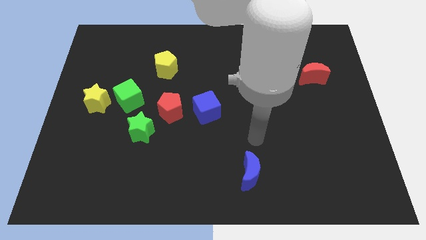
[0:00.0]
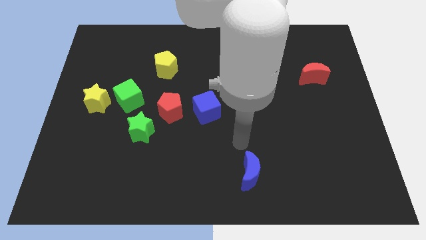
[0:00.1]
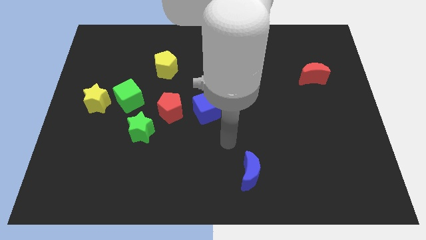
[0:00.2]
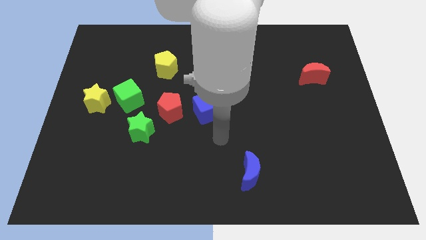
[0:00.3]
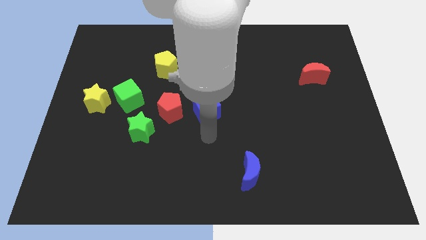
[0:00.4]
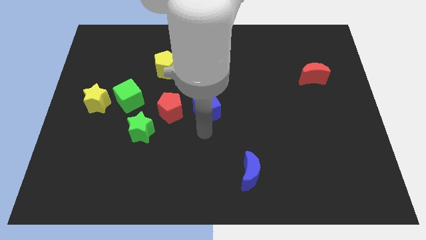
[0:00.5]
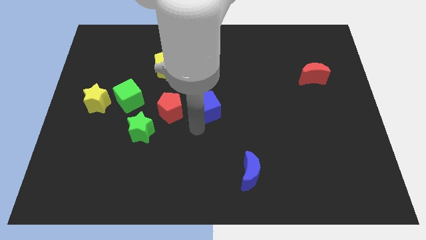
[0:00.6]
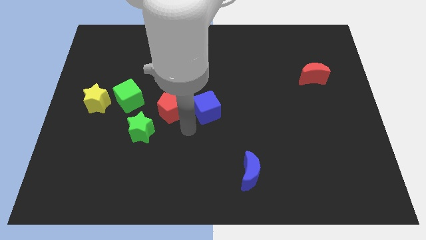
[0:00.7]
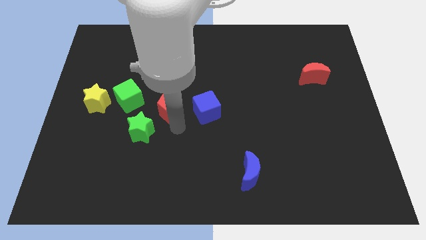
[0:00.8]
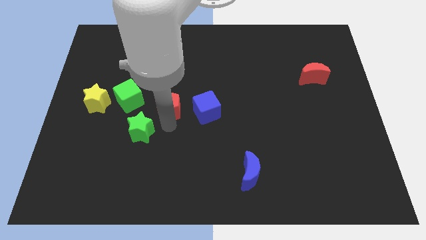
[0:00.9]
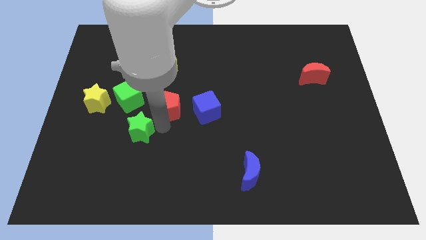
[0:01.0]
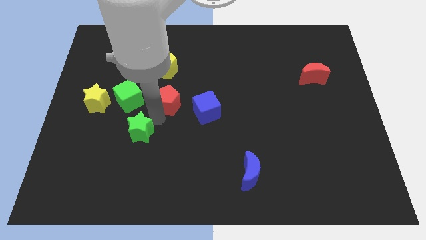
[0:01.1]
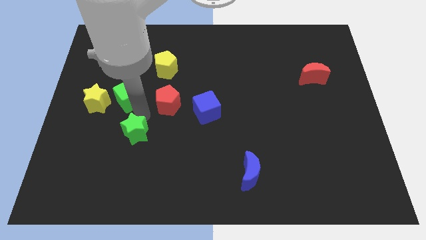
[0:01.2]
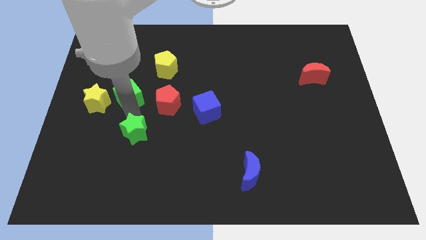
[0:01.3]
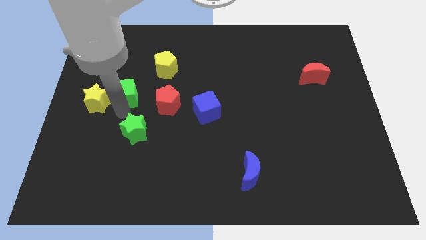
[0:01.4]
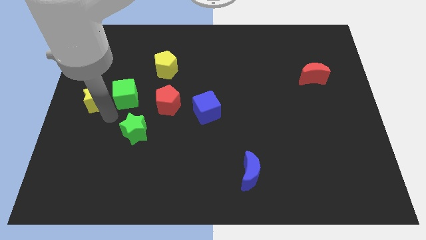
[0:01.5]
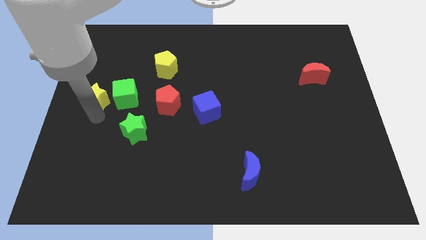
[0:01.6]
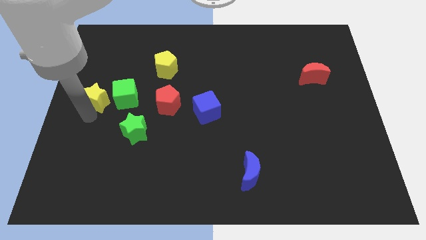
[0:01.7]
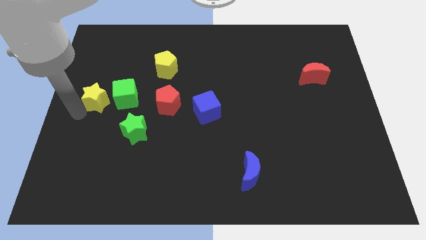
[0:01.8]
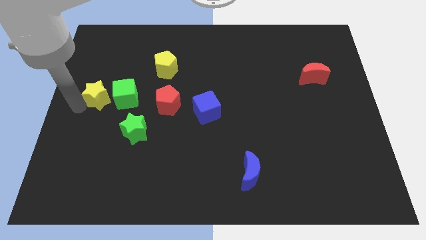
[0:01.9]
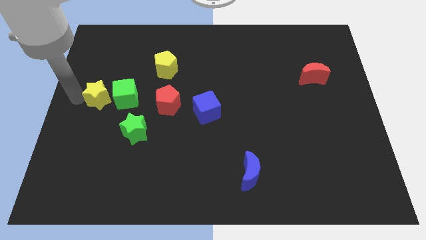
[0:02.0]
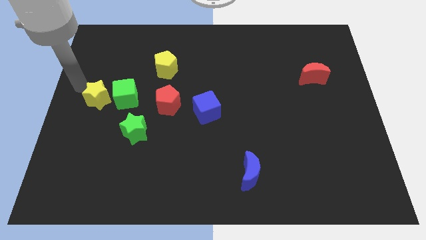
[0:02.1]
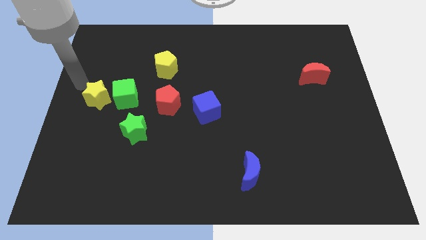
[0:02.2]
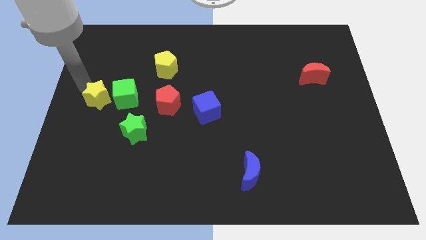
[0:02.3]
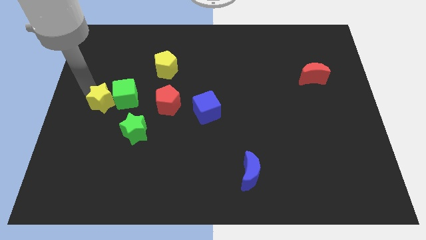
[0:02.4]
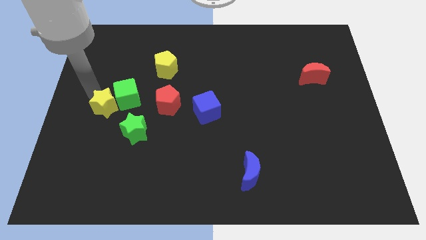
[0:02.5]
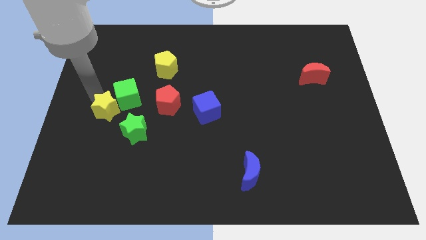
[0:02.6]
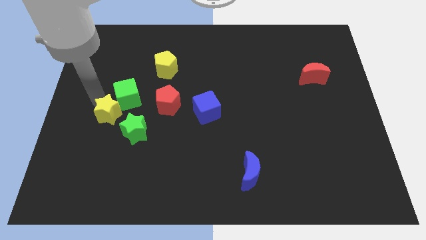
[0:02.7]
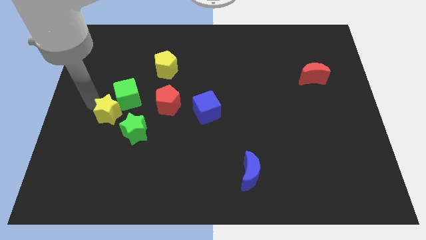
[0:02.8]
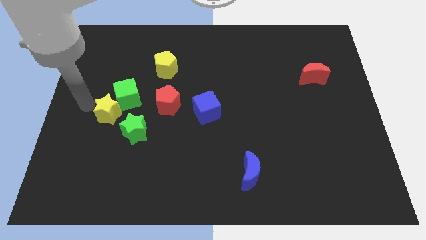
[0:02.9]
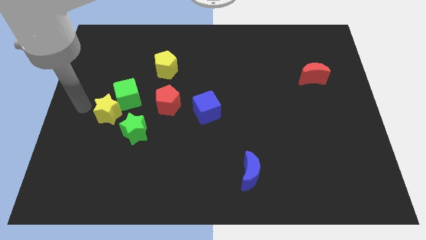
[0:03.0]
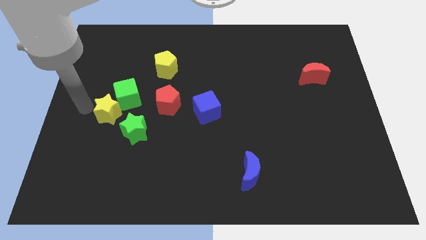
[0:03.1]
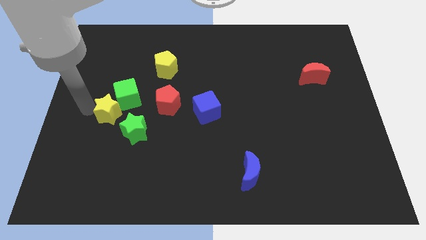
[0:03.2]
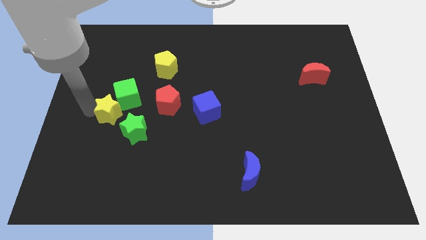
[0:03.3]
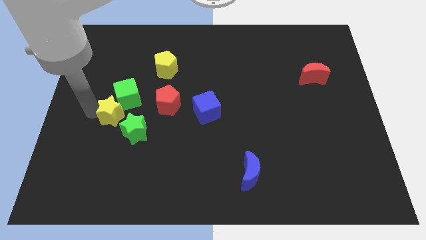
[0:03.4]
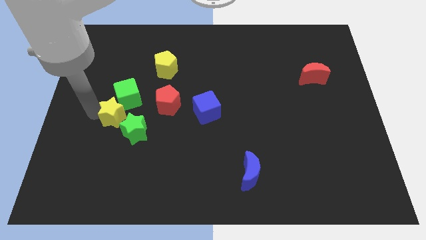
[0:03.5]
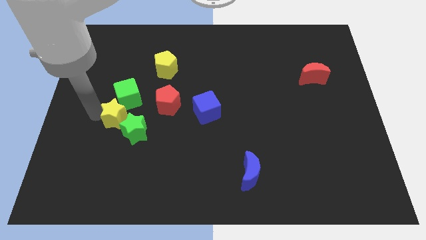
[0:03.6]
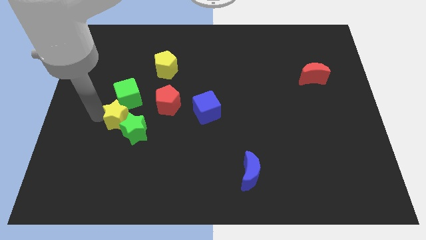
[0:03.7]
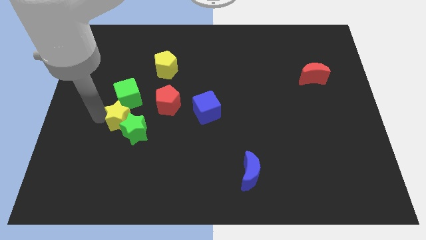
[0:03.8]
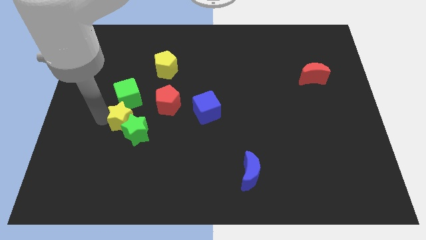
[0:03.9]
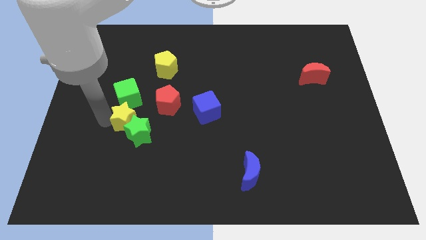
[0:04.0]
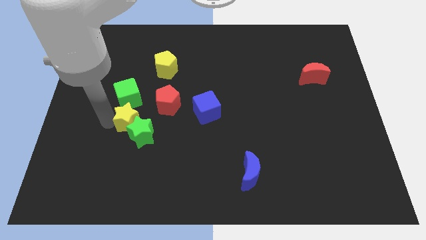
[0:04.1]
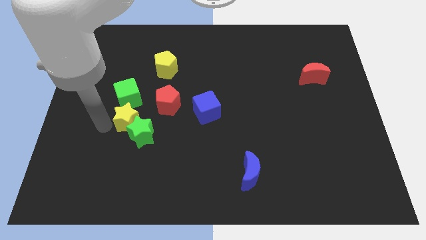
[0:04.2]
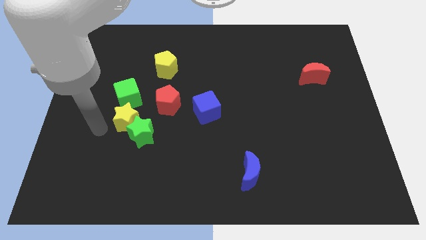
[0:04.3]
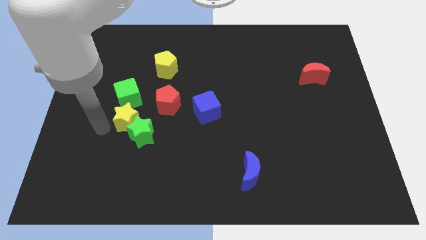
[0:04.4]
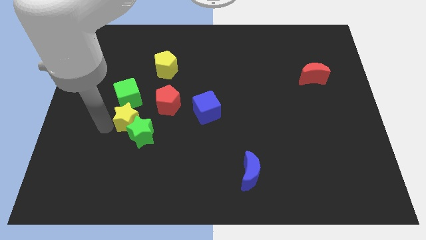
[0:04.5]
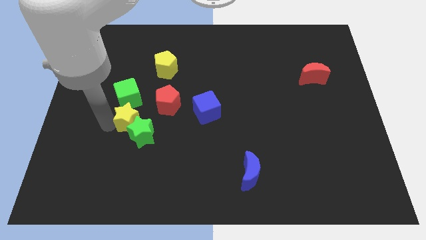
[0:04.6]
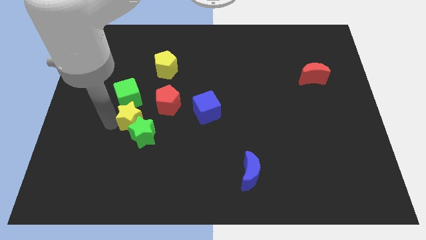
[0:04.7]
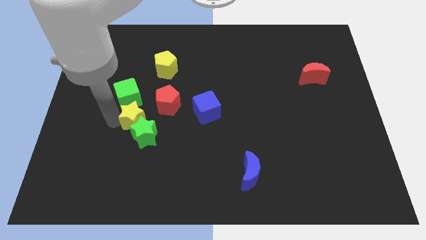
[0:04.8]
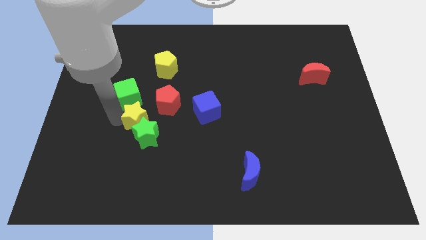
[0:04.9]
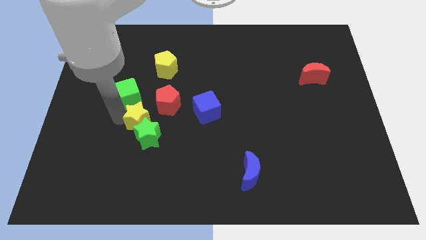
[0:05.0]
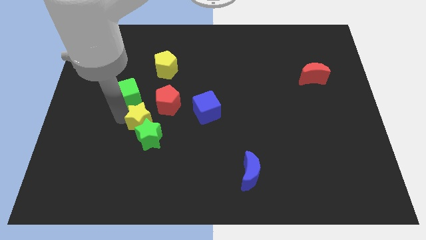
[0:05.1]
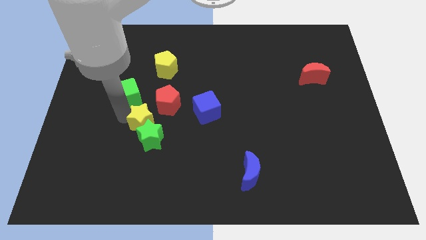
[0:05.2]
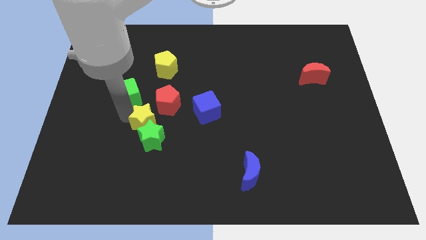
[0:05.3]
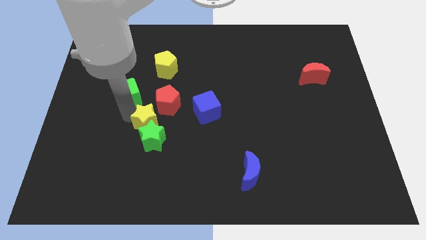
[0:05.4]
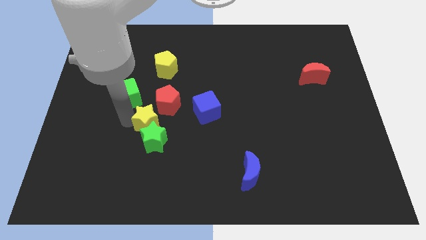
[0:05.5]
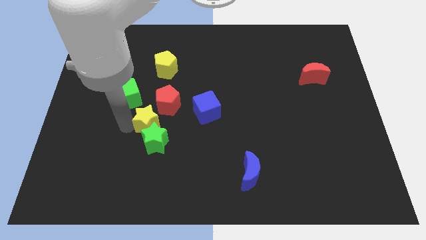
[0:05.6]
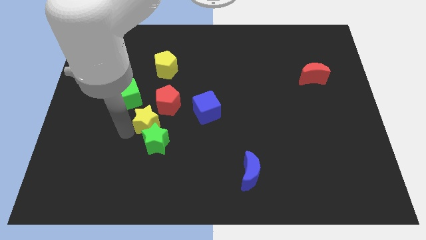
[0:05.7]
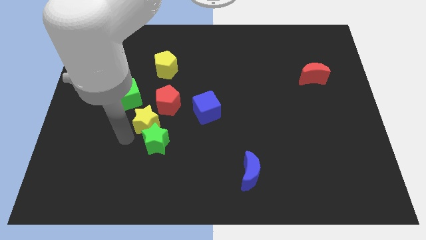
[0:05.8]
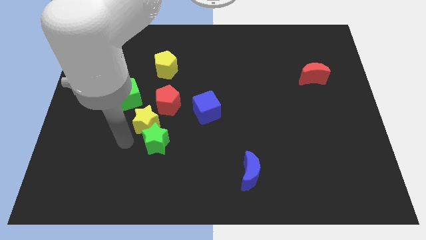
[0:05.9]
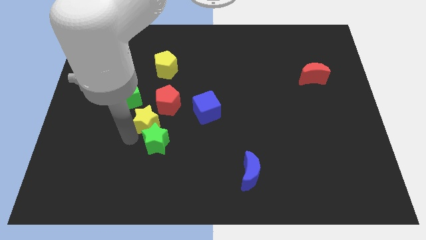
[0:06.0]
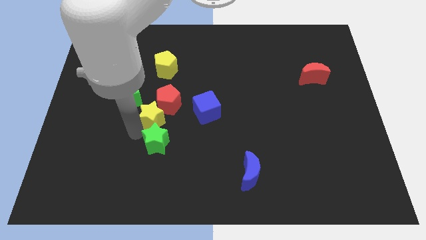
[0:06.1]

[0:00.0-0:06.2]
put the yellow star towards the red pentagon

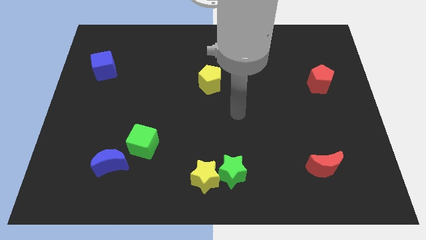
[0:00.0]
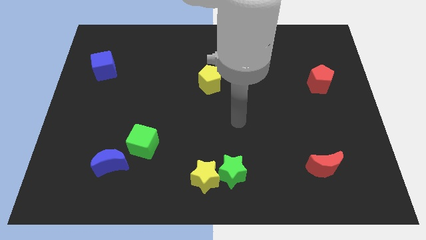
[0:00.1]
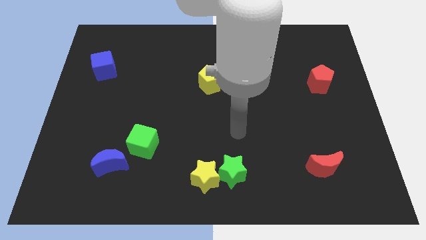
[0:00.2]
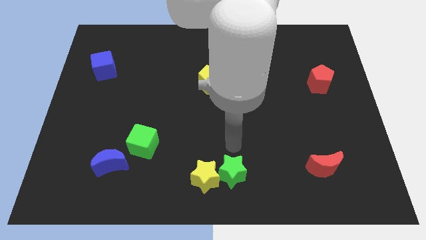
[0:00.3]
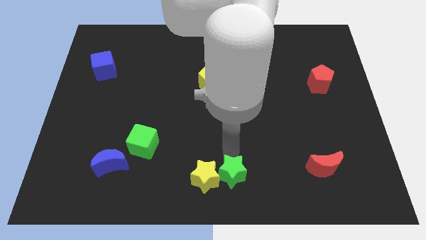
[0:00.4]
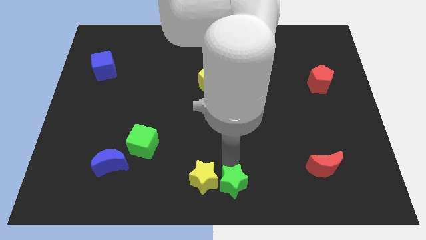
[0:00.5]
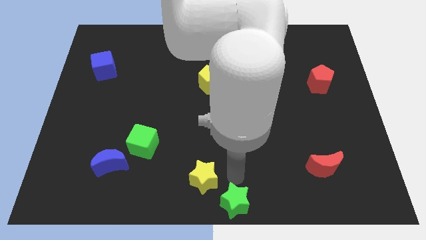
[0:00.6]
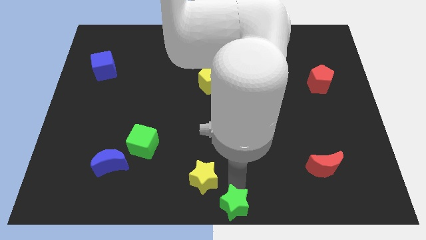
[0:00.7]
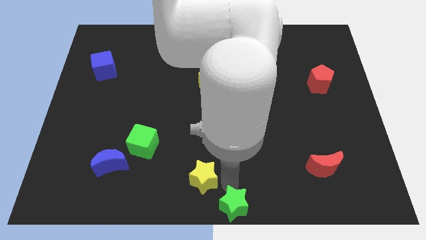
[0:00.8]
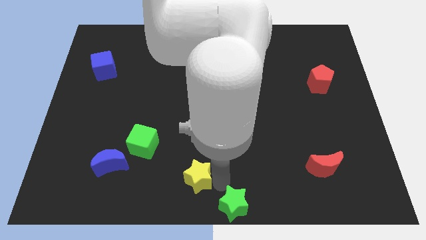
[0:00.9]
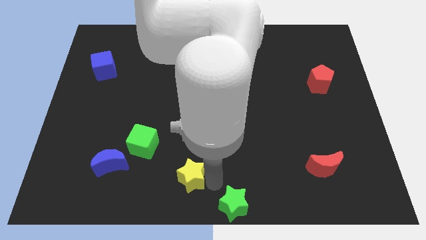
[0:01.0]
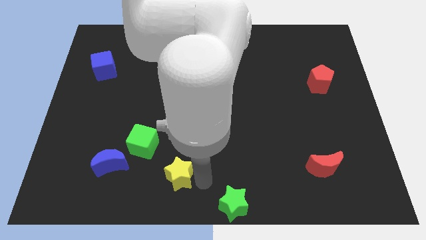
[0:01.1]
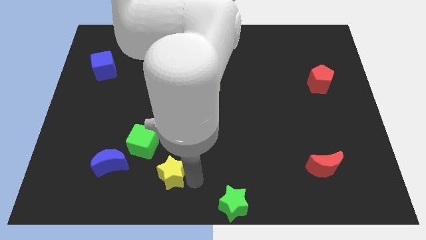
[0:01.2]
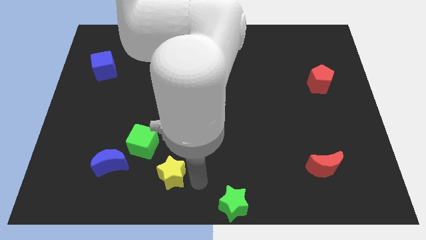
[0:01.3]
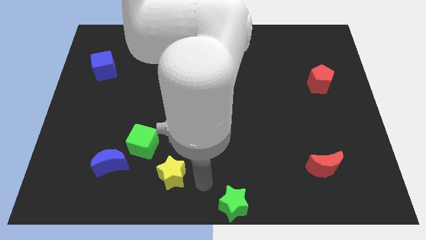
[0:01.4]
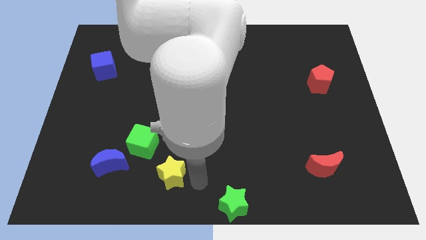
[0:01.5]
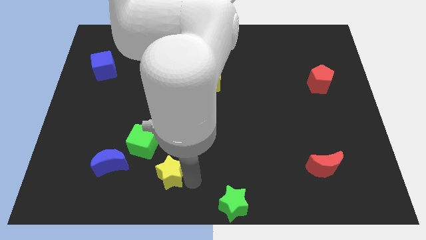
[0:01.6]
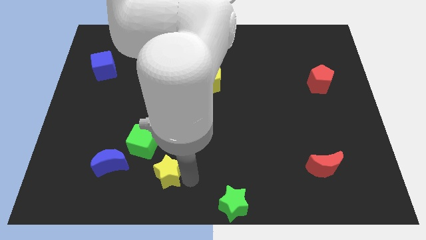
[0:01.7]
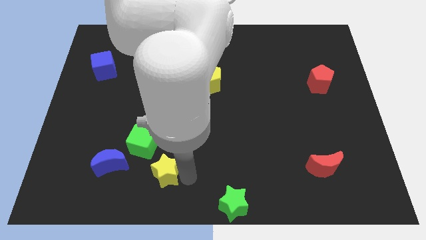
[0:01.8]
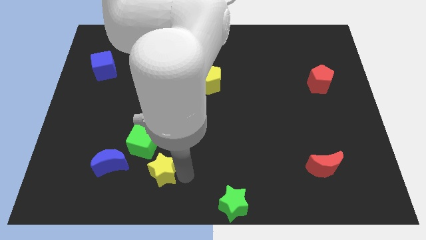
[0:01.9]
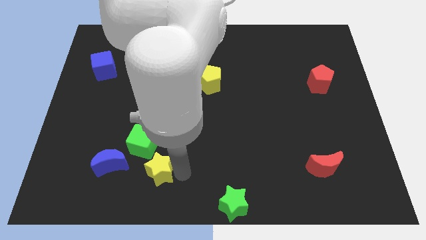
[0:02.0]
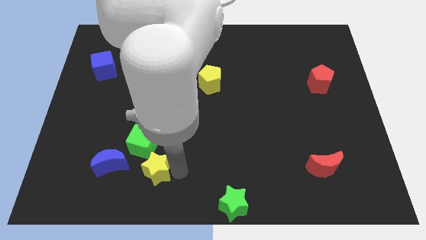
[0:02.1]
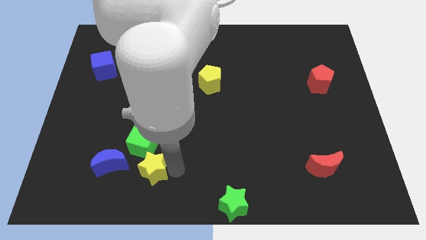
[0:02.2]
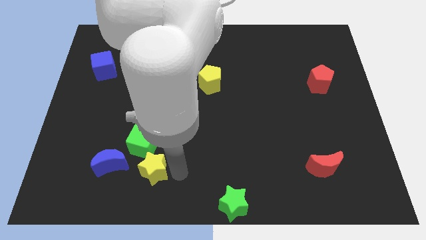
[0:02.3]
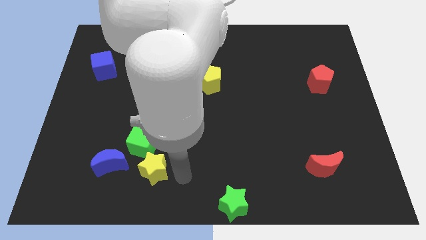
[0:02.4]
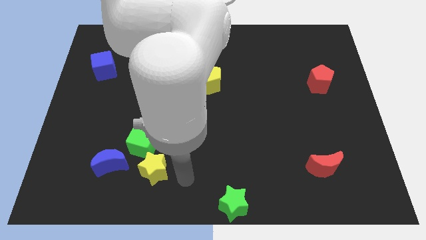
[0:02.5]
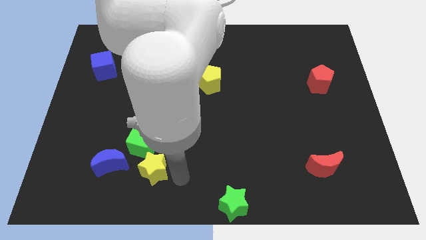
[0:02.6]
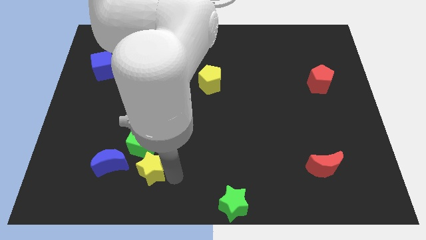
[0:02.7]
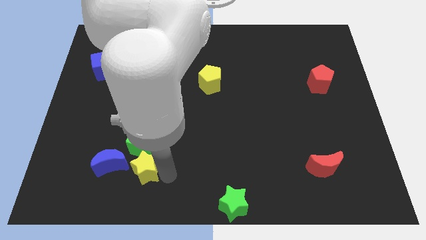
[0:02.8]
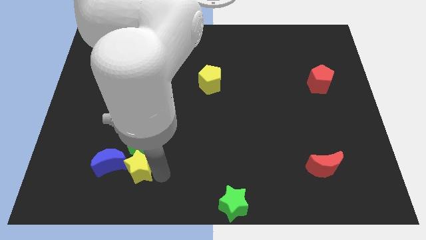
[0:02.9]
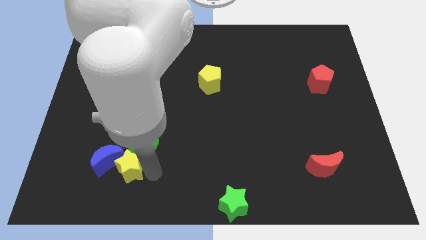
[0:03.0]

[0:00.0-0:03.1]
slide the yellow star next to the blue moon
